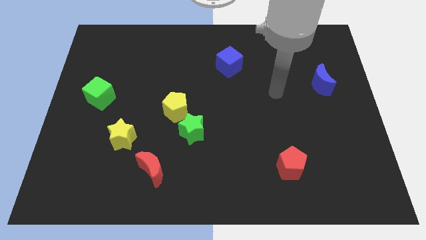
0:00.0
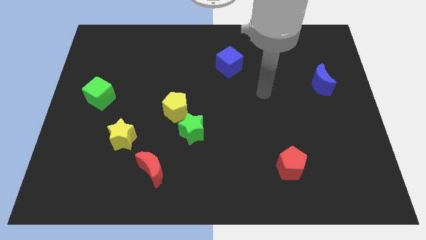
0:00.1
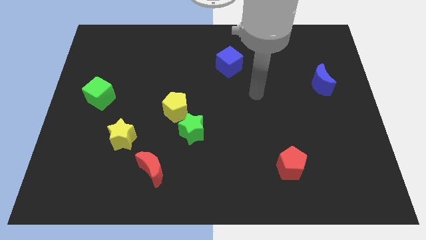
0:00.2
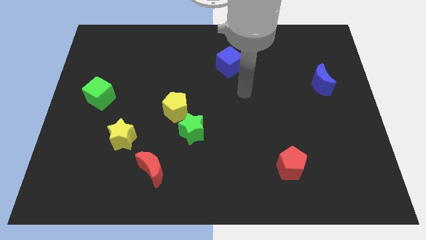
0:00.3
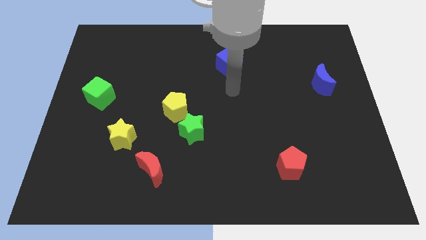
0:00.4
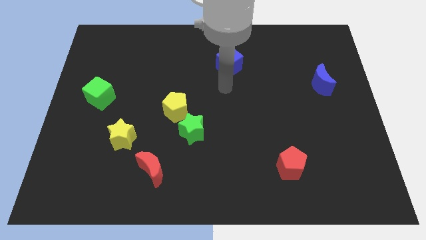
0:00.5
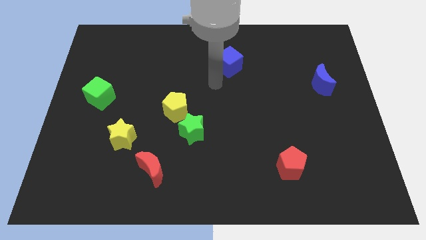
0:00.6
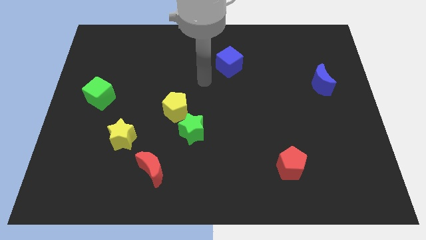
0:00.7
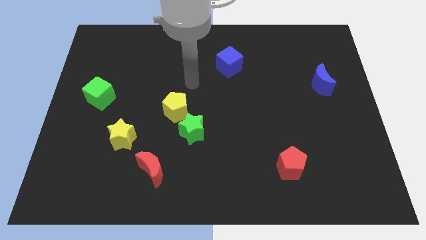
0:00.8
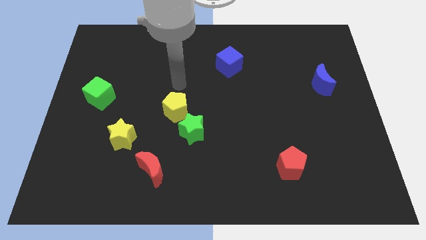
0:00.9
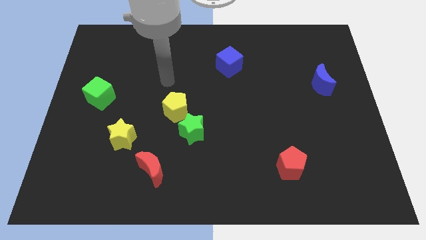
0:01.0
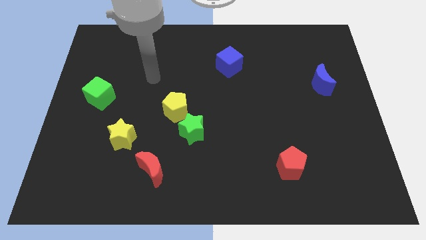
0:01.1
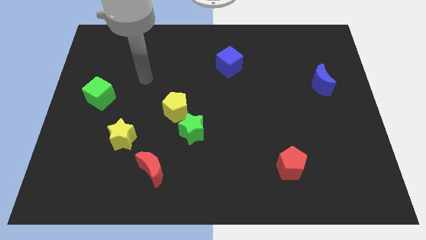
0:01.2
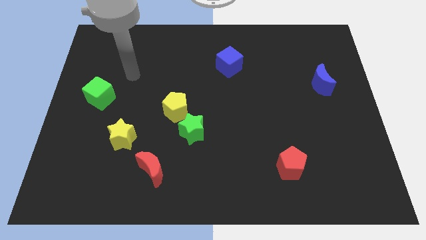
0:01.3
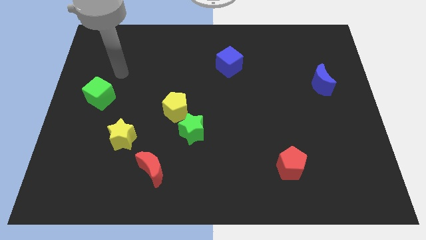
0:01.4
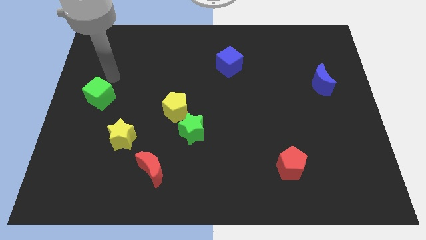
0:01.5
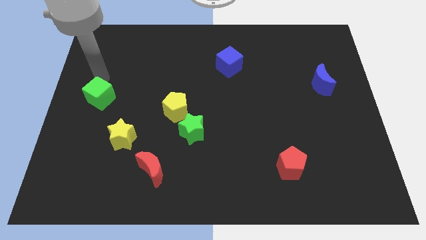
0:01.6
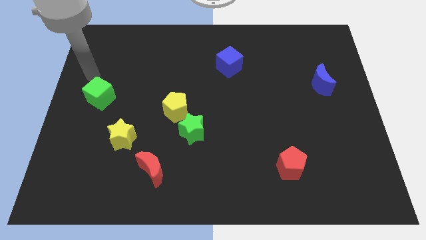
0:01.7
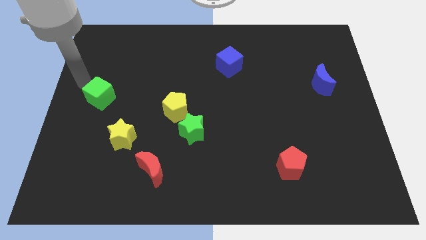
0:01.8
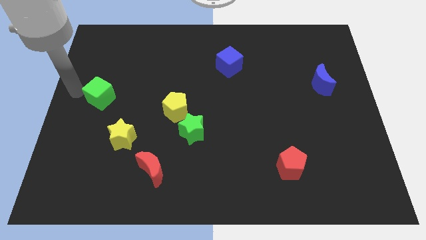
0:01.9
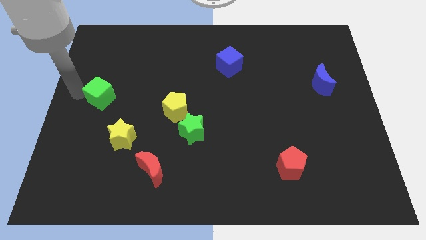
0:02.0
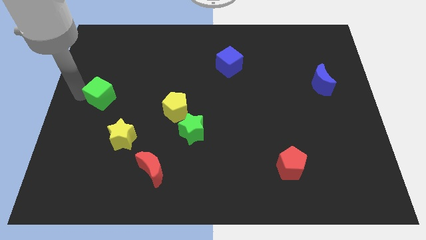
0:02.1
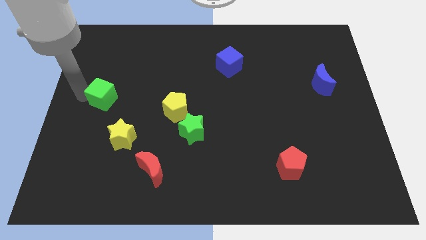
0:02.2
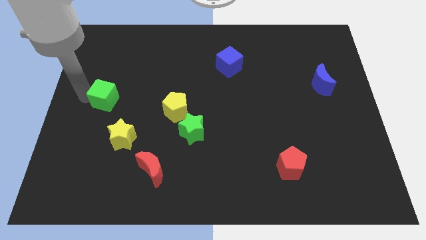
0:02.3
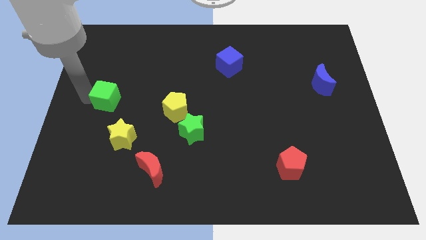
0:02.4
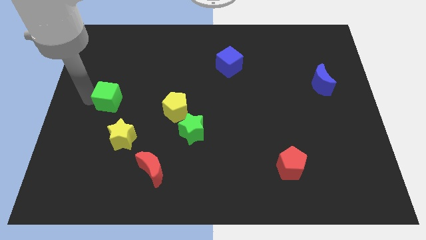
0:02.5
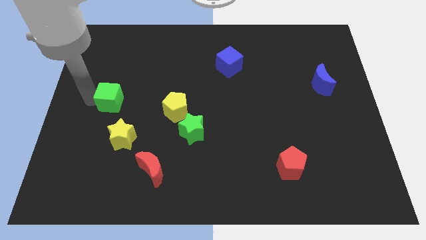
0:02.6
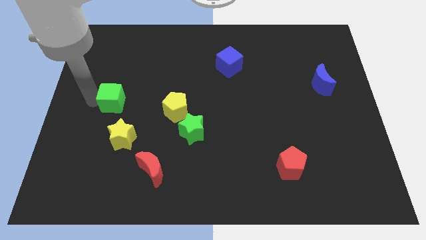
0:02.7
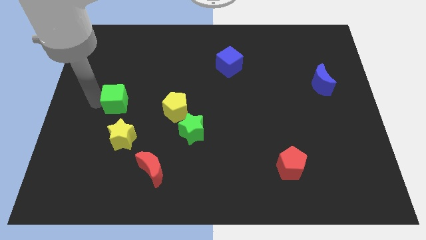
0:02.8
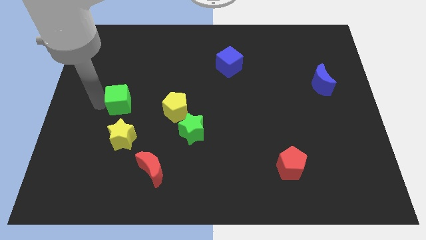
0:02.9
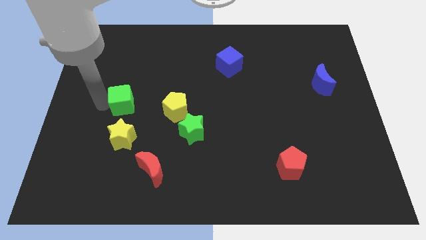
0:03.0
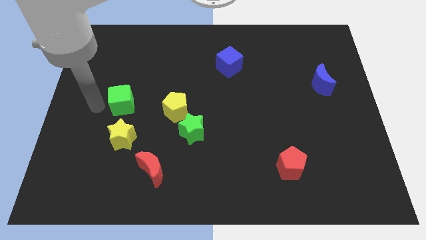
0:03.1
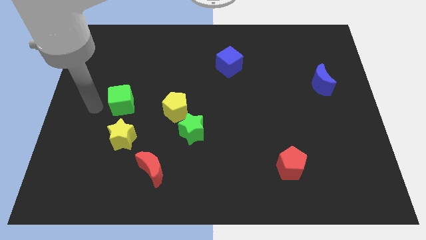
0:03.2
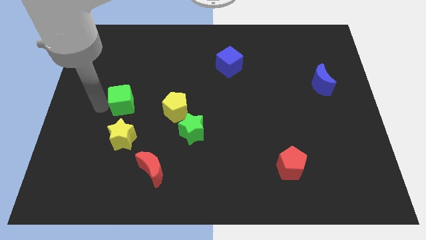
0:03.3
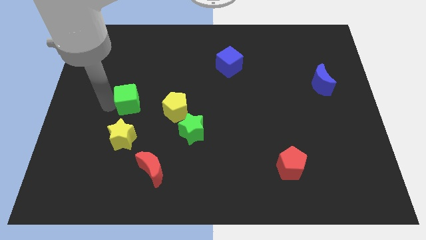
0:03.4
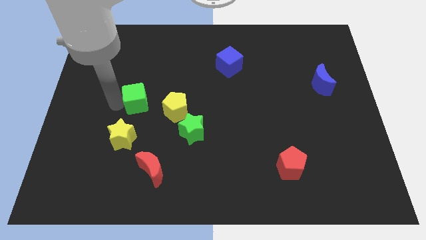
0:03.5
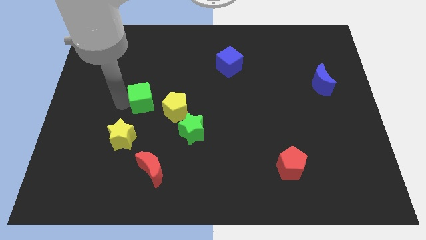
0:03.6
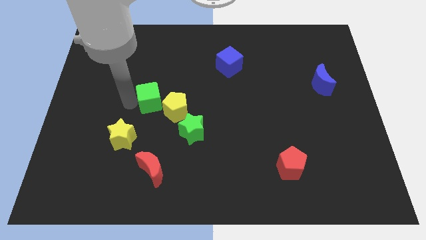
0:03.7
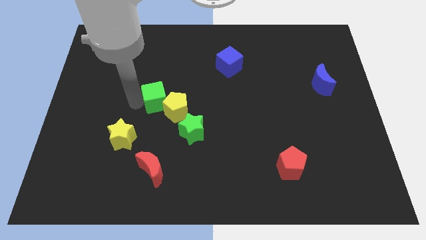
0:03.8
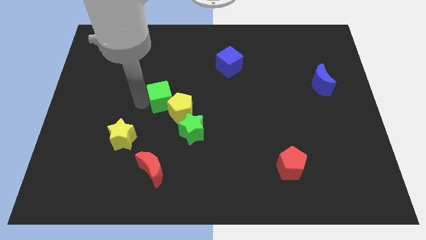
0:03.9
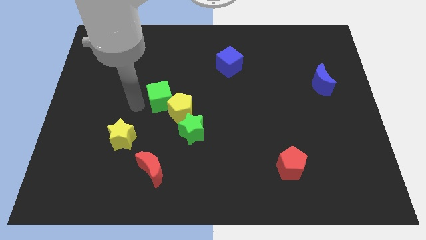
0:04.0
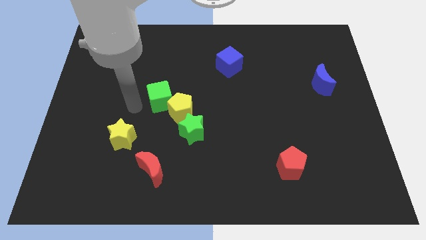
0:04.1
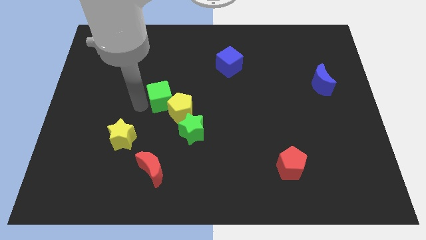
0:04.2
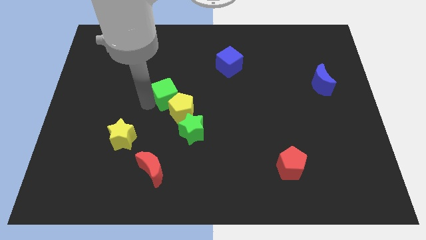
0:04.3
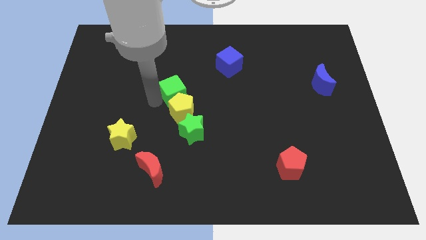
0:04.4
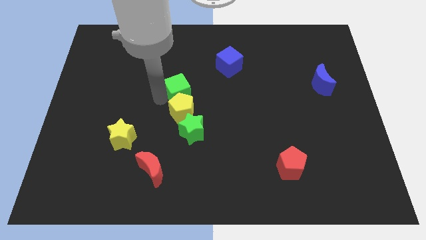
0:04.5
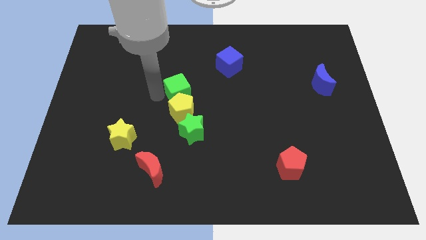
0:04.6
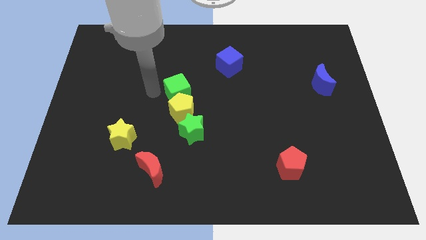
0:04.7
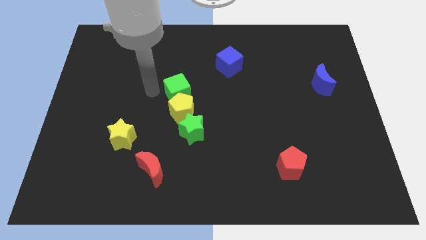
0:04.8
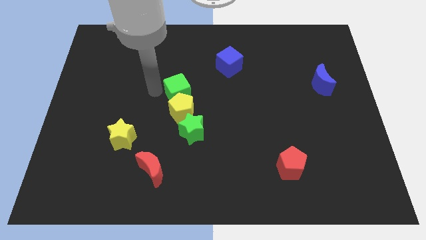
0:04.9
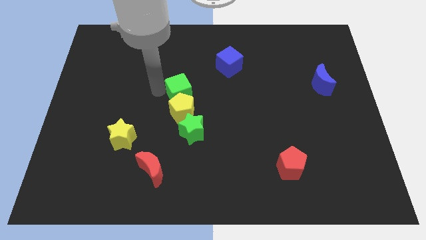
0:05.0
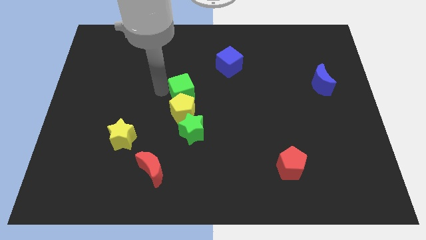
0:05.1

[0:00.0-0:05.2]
slide the green cube right

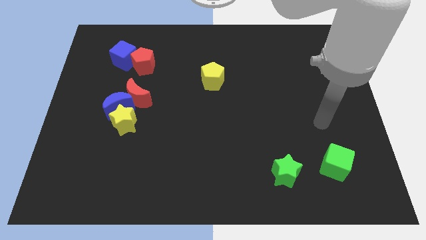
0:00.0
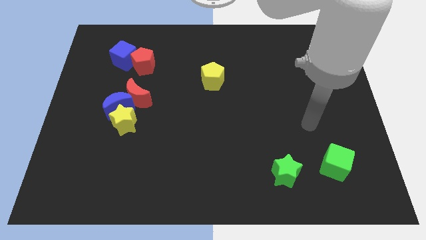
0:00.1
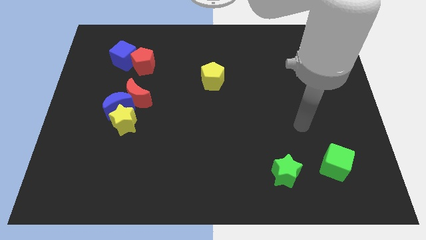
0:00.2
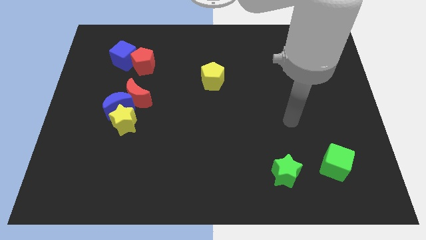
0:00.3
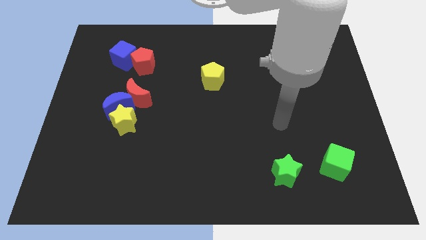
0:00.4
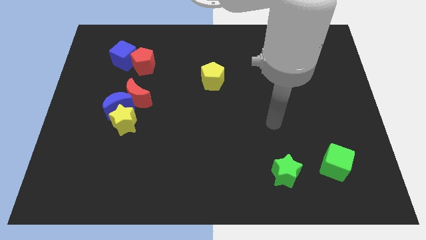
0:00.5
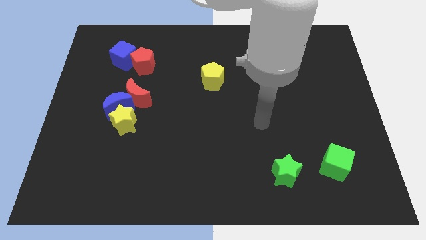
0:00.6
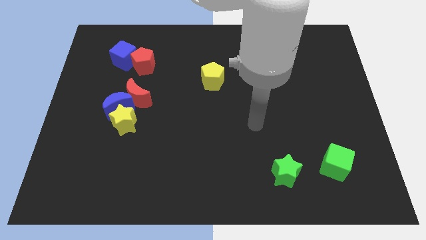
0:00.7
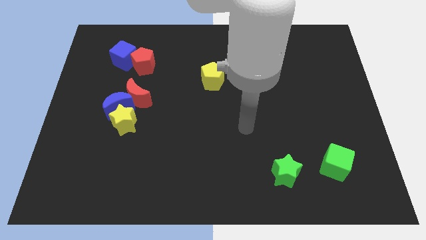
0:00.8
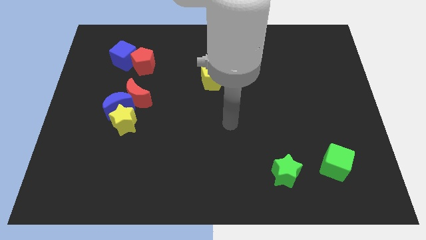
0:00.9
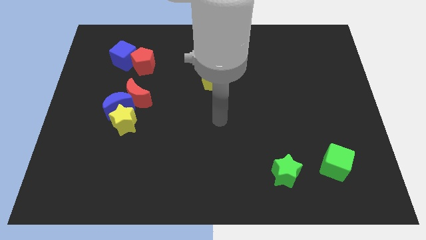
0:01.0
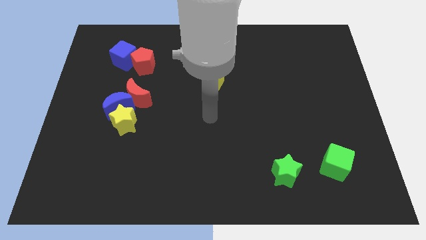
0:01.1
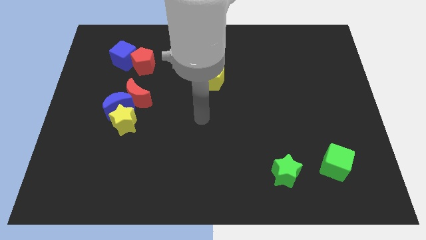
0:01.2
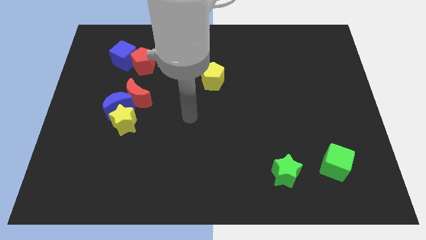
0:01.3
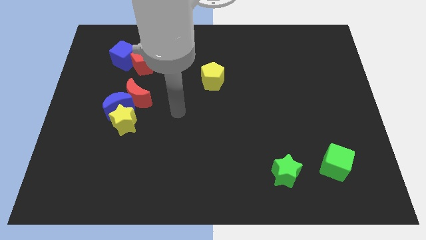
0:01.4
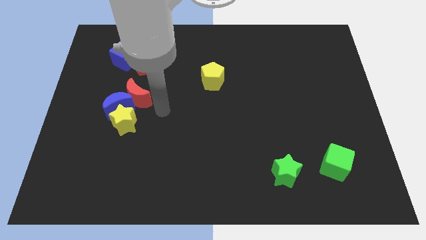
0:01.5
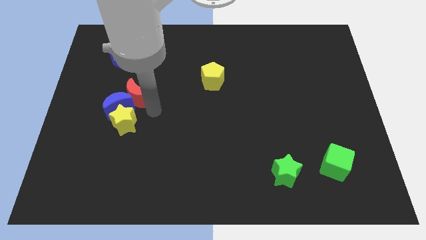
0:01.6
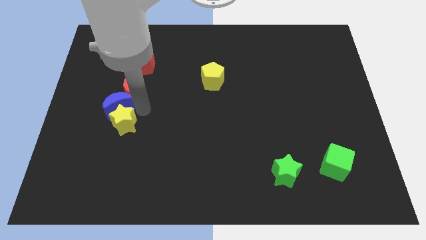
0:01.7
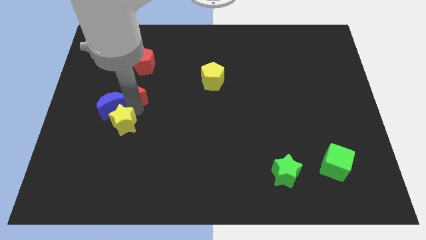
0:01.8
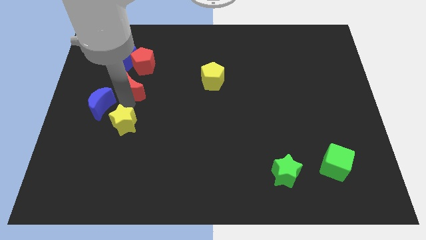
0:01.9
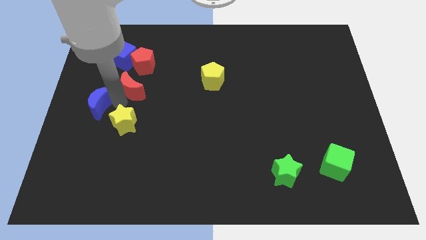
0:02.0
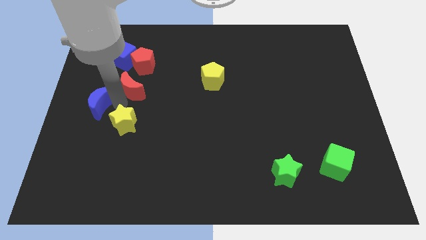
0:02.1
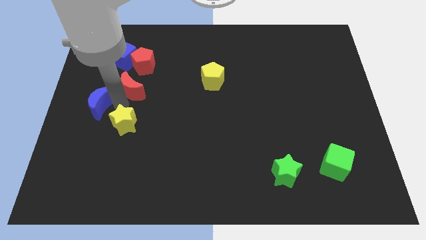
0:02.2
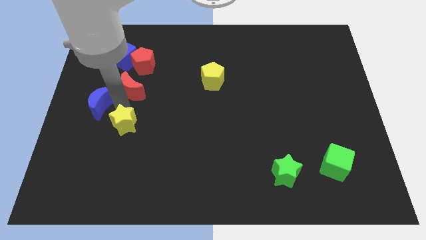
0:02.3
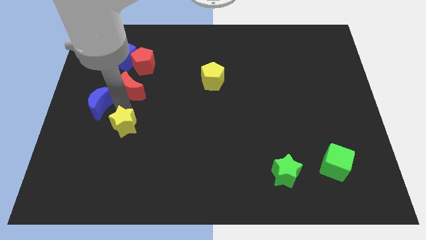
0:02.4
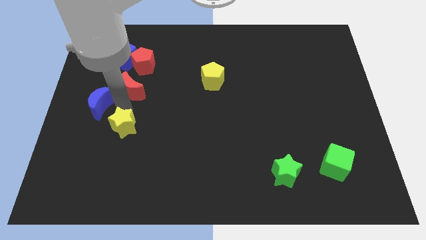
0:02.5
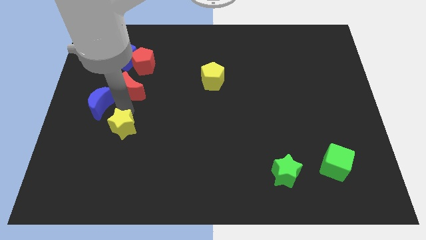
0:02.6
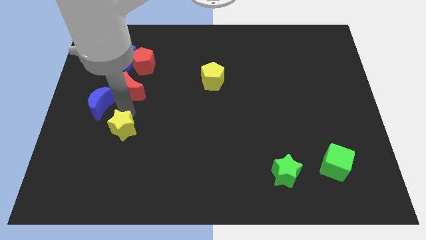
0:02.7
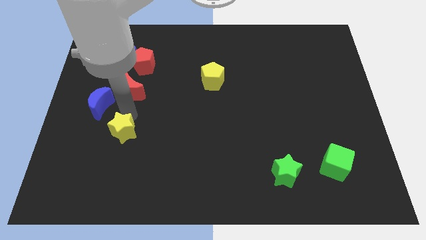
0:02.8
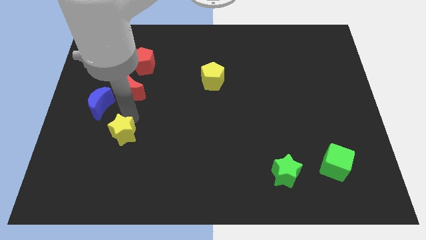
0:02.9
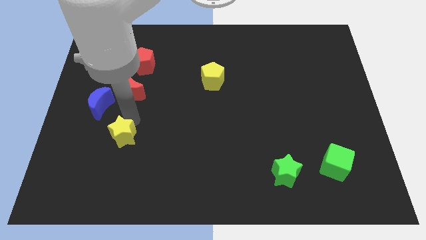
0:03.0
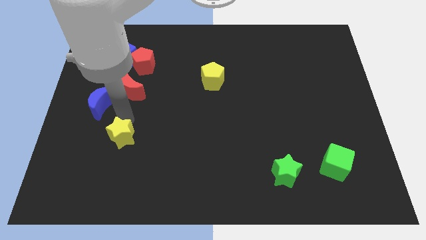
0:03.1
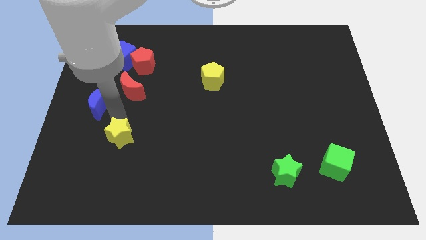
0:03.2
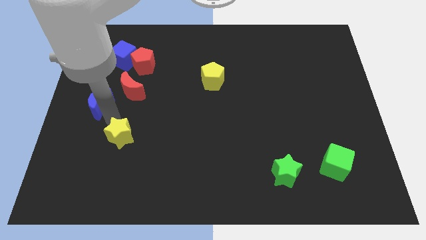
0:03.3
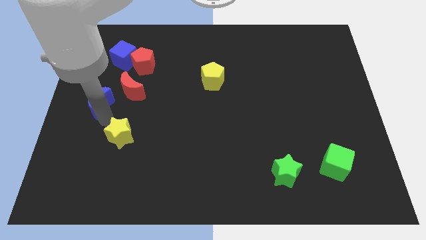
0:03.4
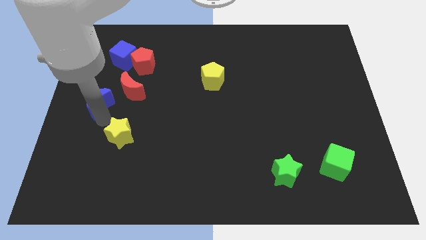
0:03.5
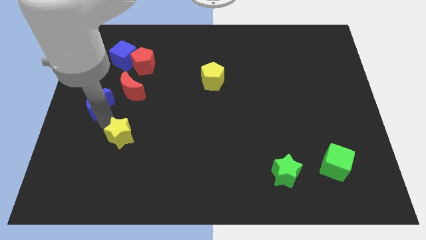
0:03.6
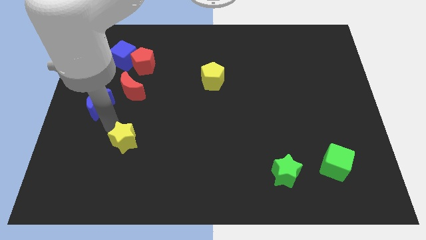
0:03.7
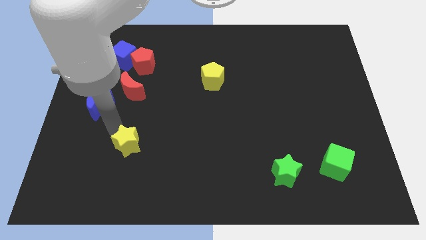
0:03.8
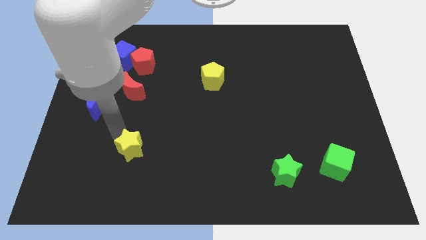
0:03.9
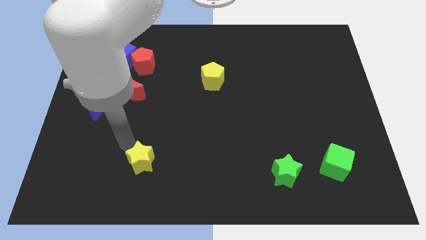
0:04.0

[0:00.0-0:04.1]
slide the yellow star a bit downwards and to the right
